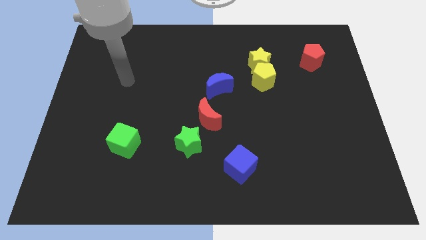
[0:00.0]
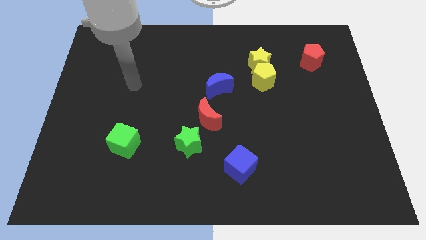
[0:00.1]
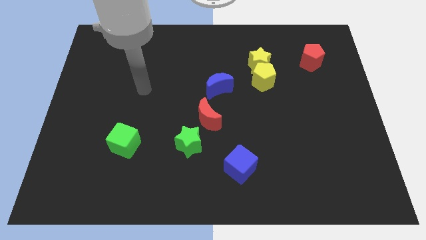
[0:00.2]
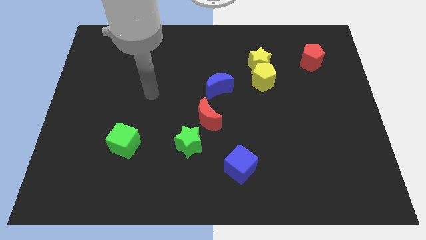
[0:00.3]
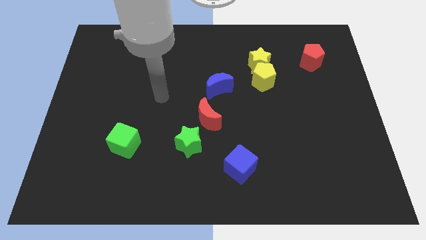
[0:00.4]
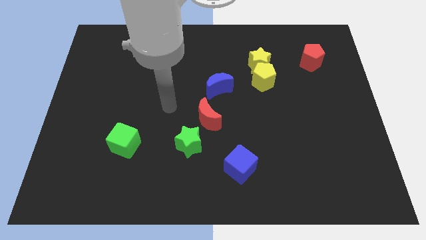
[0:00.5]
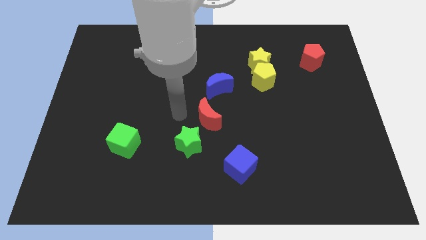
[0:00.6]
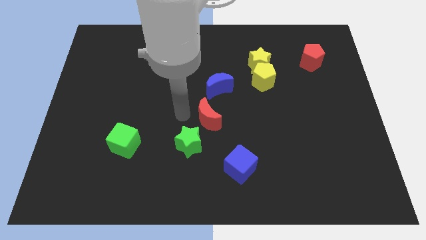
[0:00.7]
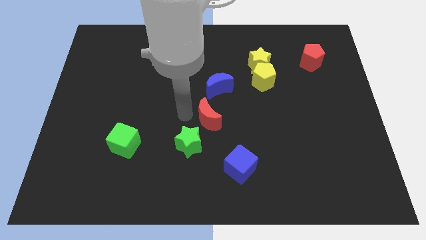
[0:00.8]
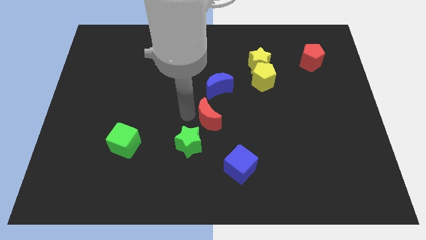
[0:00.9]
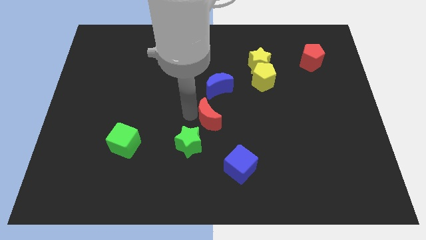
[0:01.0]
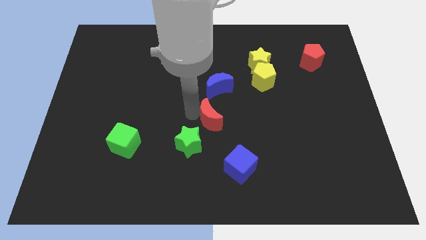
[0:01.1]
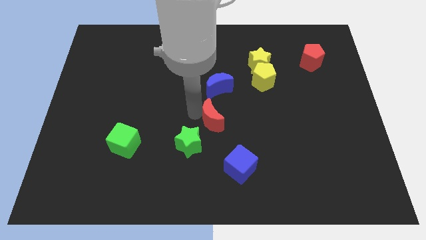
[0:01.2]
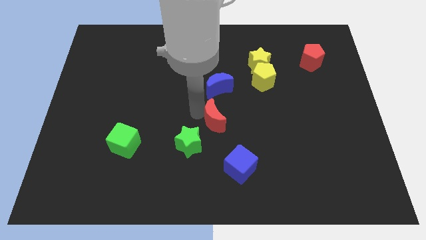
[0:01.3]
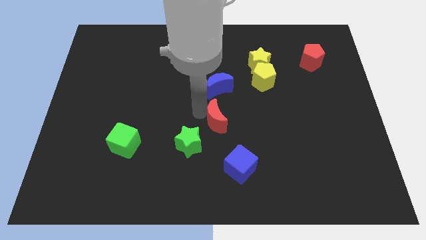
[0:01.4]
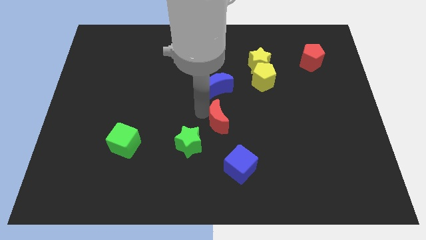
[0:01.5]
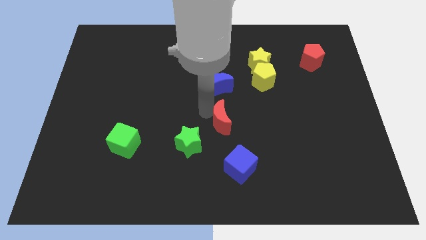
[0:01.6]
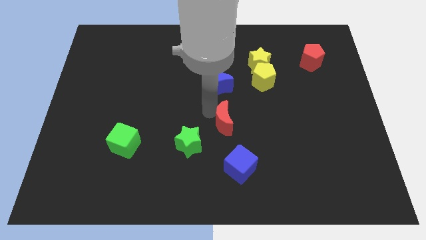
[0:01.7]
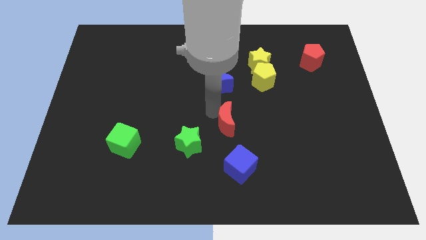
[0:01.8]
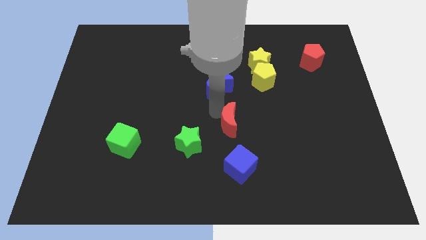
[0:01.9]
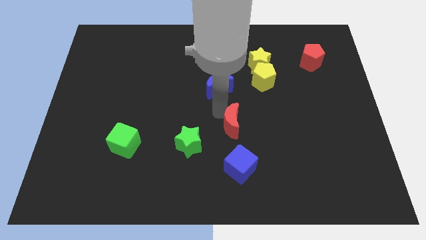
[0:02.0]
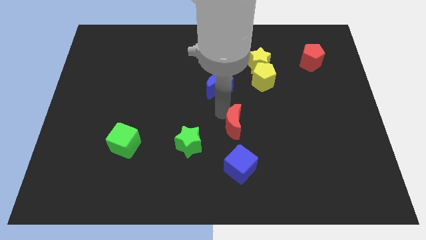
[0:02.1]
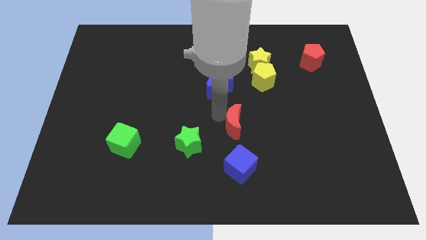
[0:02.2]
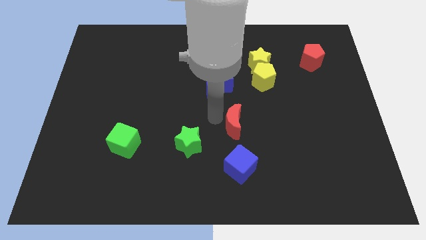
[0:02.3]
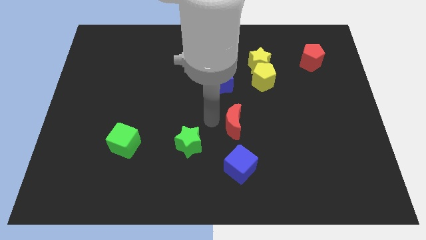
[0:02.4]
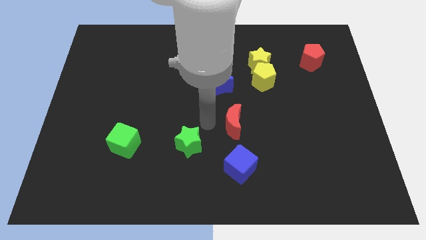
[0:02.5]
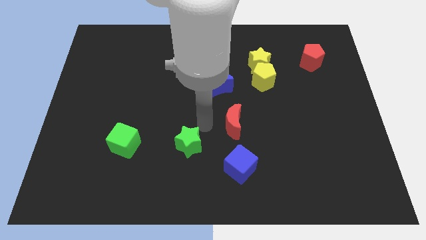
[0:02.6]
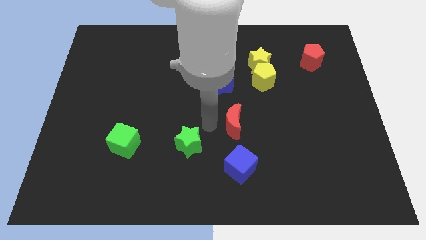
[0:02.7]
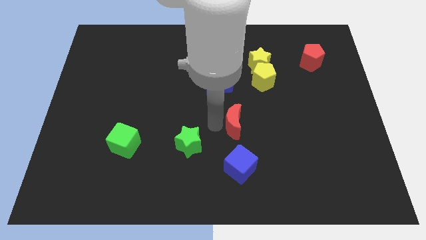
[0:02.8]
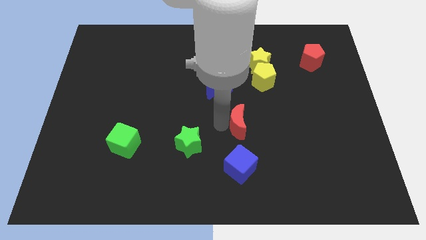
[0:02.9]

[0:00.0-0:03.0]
move the red moon to the right a bit

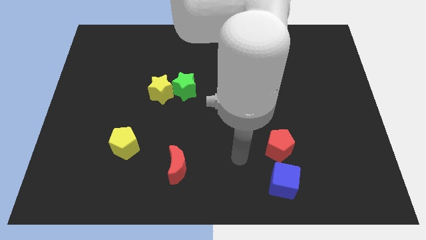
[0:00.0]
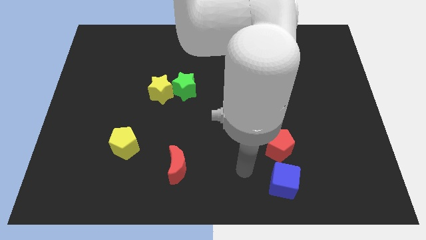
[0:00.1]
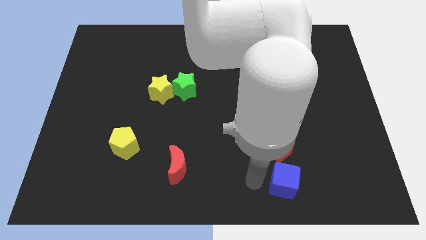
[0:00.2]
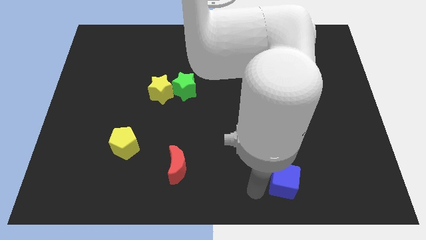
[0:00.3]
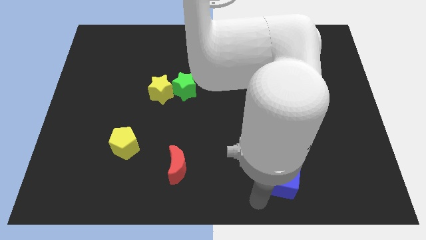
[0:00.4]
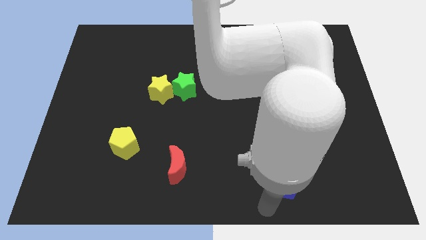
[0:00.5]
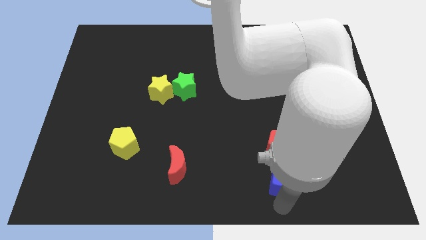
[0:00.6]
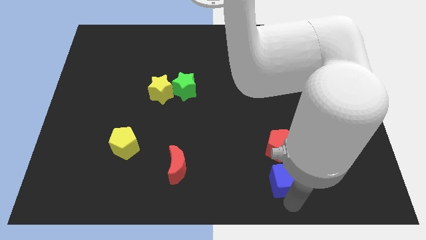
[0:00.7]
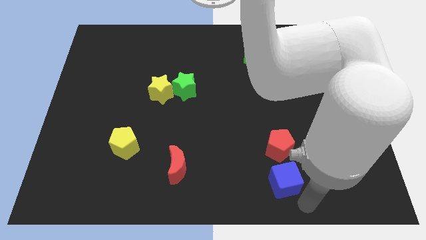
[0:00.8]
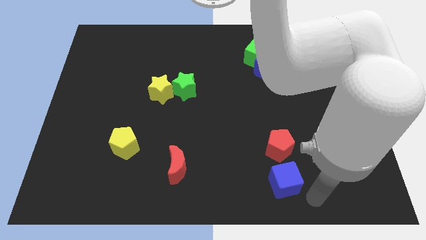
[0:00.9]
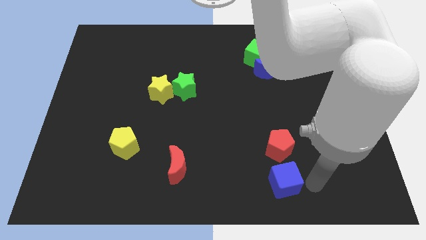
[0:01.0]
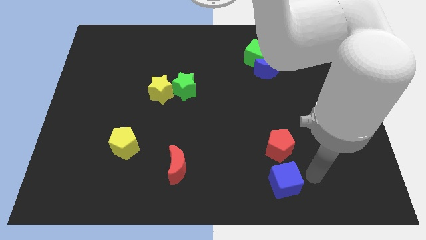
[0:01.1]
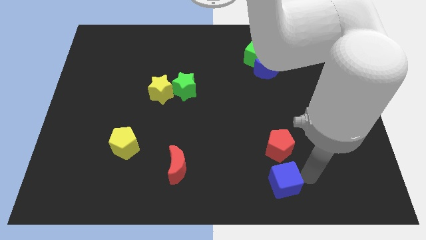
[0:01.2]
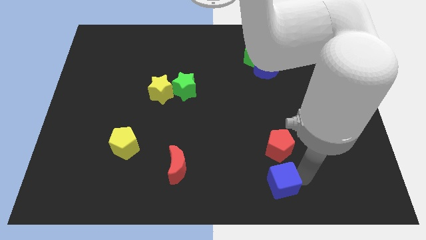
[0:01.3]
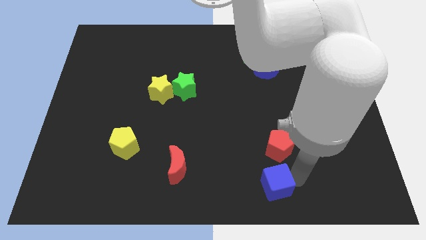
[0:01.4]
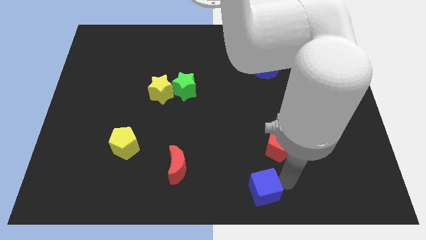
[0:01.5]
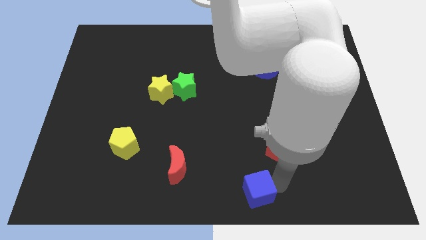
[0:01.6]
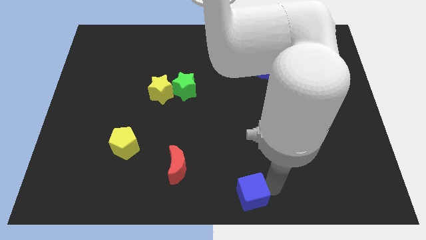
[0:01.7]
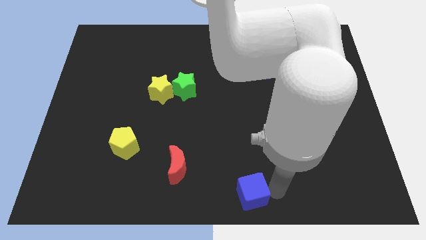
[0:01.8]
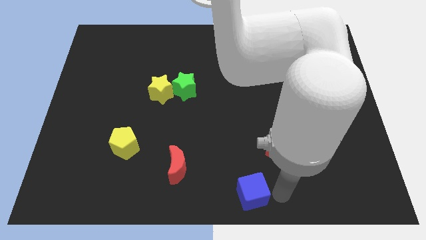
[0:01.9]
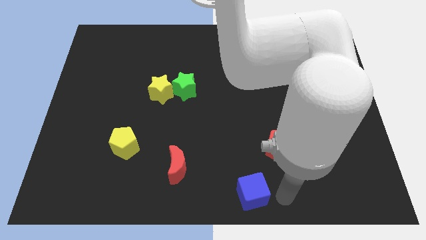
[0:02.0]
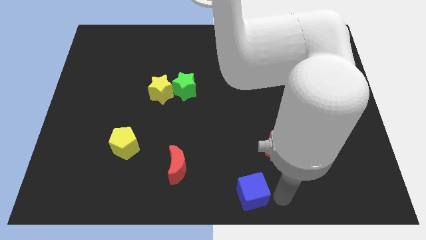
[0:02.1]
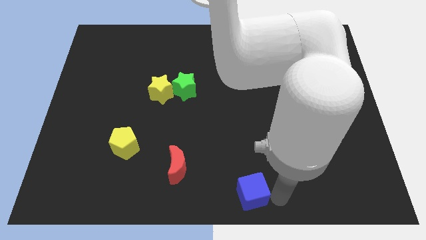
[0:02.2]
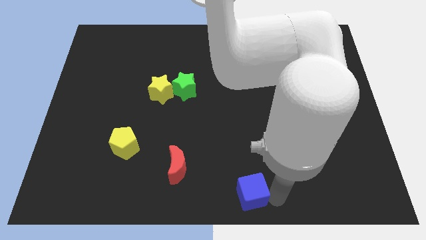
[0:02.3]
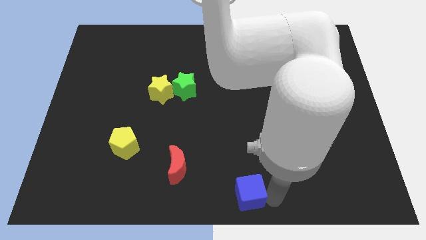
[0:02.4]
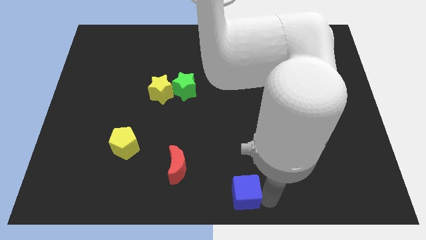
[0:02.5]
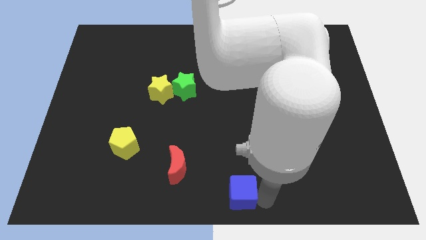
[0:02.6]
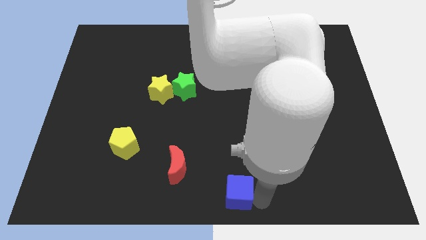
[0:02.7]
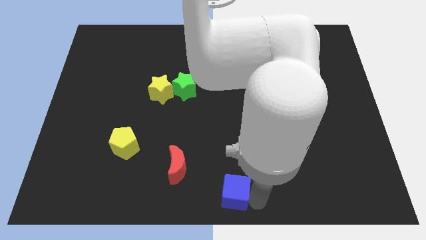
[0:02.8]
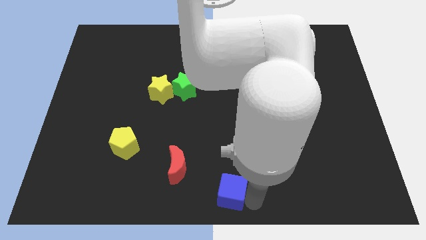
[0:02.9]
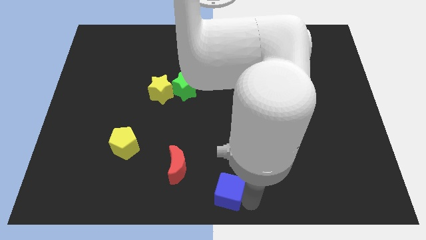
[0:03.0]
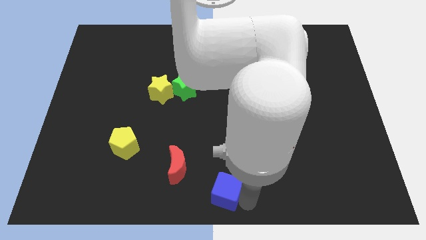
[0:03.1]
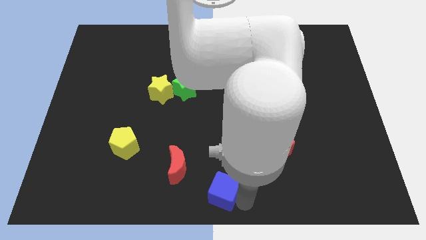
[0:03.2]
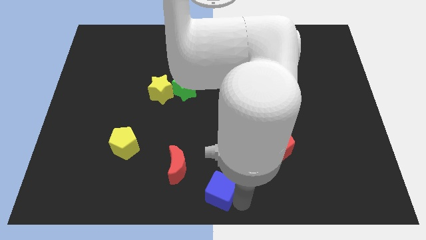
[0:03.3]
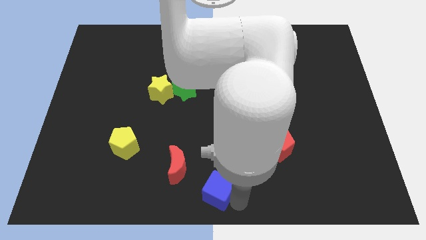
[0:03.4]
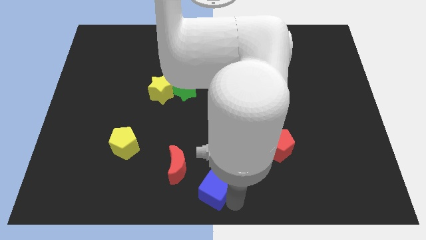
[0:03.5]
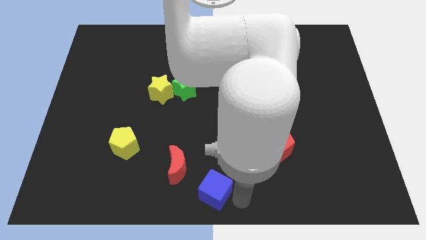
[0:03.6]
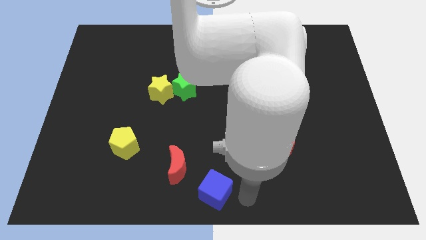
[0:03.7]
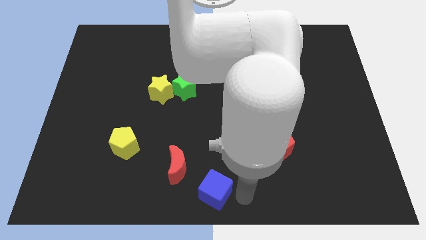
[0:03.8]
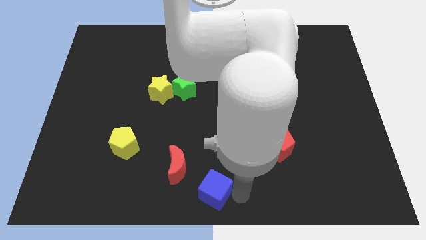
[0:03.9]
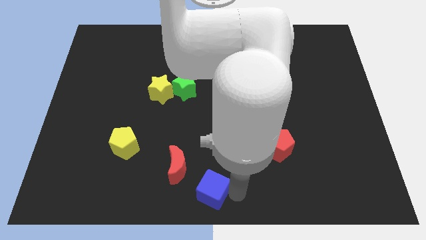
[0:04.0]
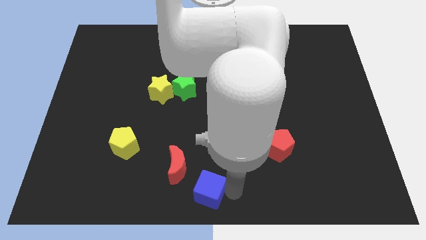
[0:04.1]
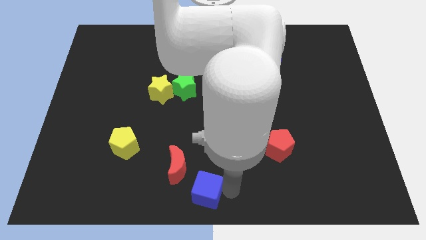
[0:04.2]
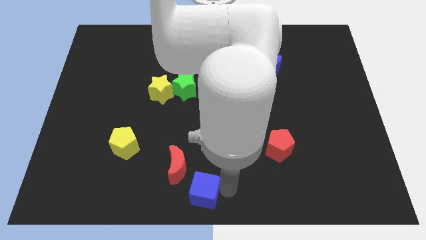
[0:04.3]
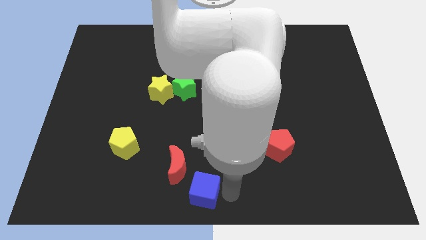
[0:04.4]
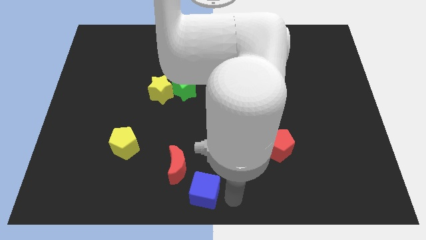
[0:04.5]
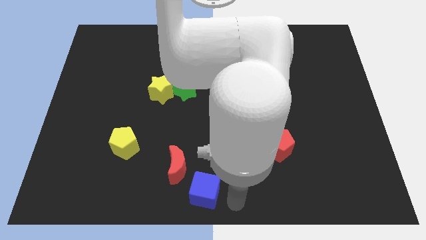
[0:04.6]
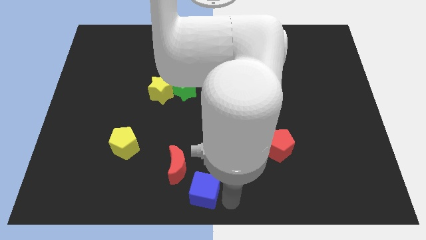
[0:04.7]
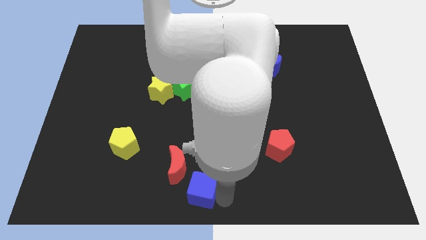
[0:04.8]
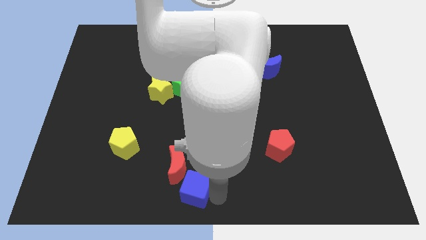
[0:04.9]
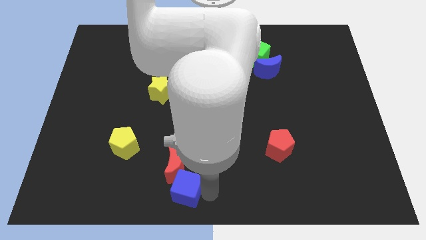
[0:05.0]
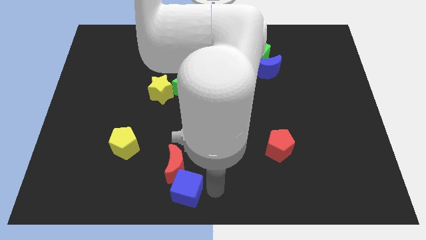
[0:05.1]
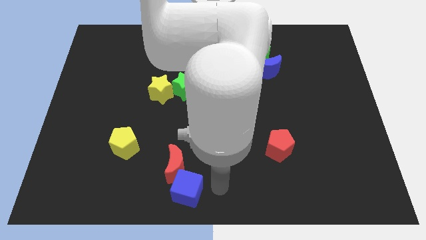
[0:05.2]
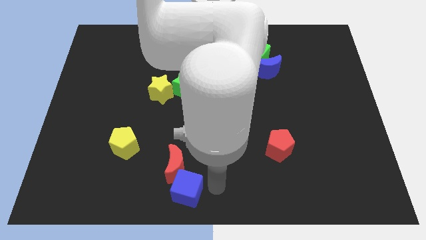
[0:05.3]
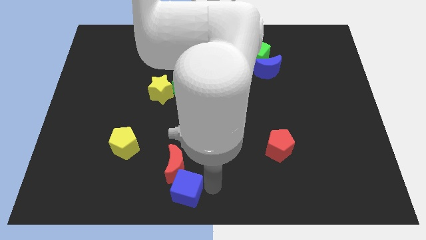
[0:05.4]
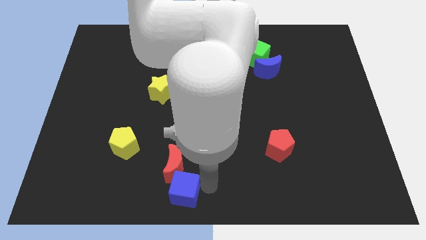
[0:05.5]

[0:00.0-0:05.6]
push the blue cube left
